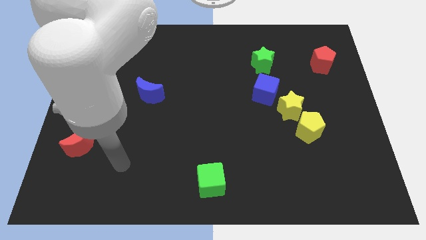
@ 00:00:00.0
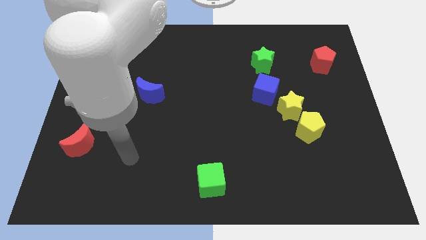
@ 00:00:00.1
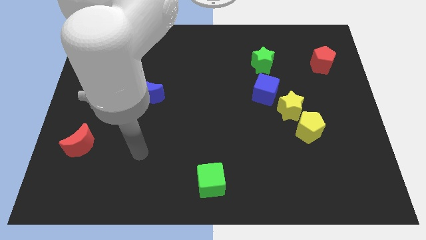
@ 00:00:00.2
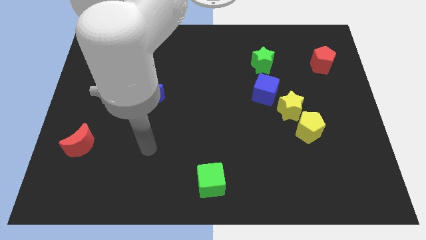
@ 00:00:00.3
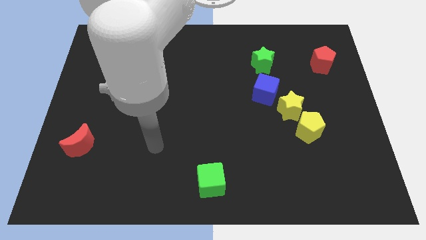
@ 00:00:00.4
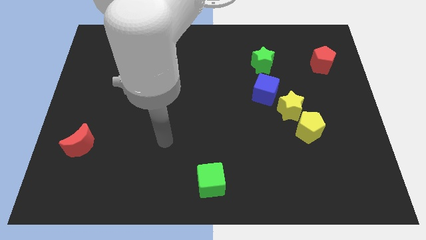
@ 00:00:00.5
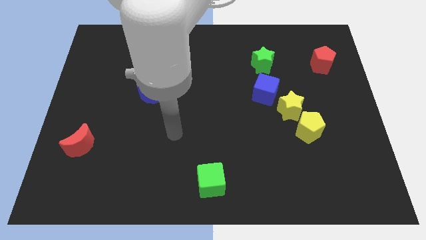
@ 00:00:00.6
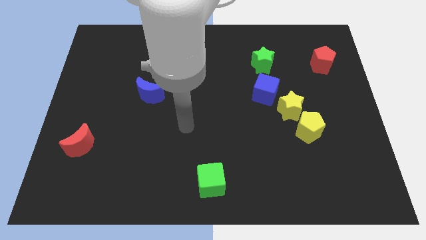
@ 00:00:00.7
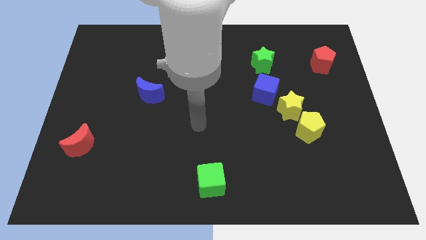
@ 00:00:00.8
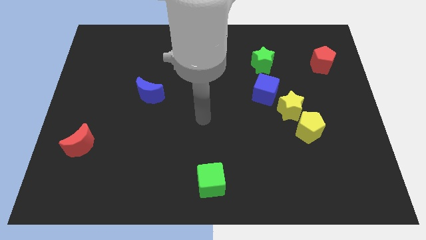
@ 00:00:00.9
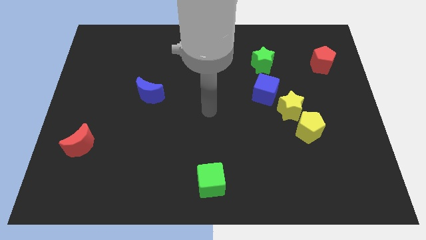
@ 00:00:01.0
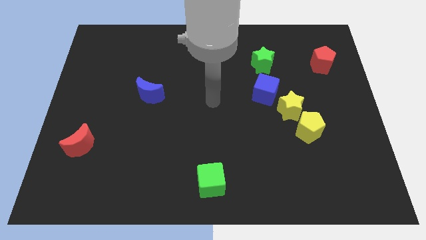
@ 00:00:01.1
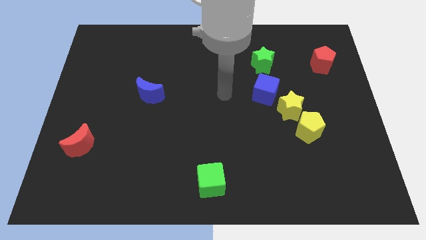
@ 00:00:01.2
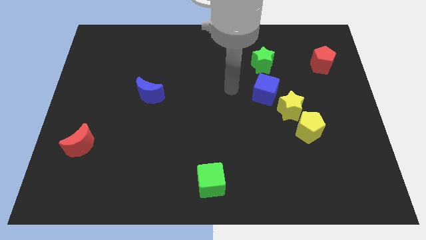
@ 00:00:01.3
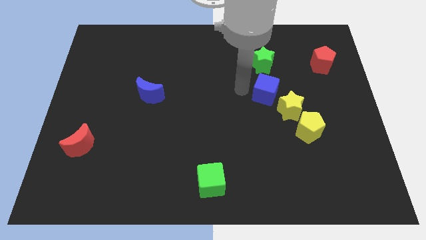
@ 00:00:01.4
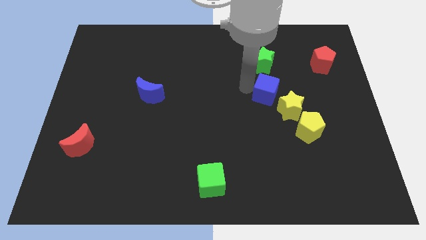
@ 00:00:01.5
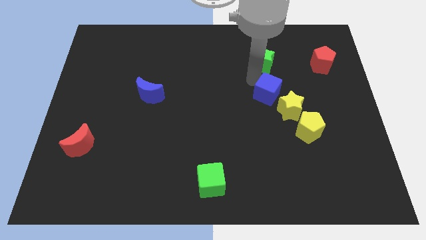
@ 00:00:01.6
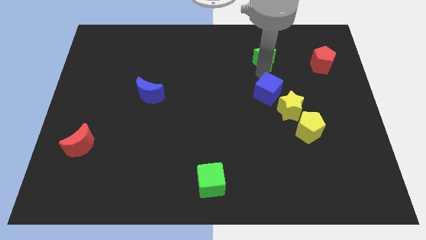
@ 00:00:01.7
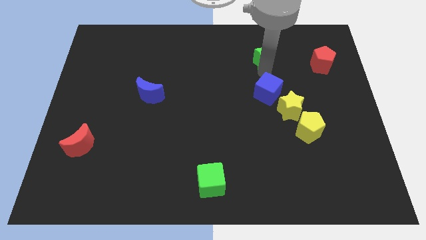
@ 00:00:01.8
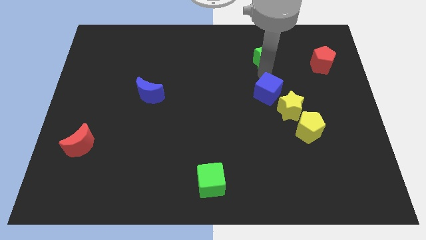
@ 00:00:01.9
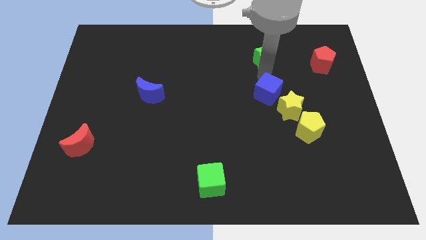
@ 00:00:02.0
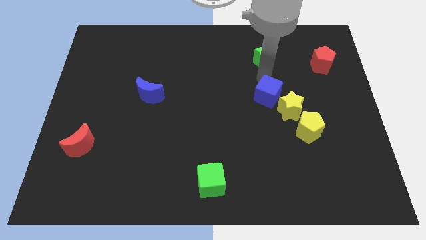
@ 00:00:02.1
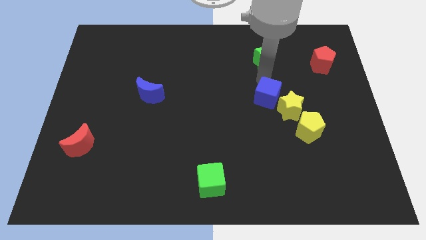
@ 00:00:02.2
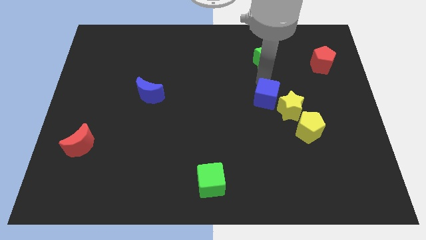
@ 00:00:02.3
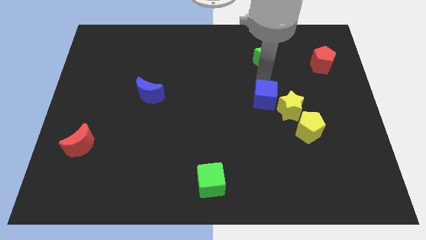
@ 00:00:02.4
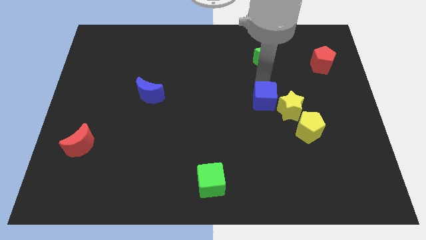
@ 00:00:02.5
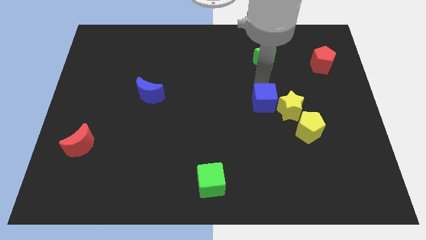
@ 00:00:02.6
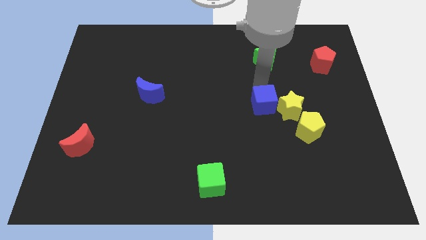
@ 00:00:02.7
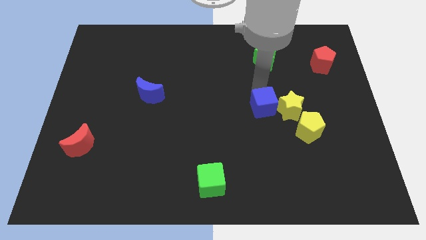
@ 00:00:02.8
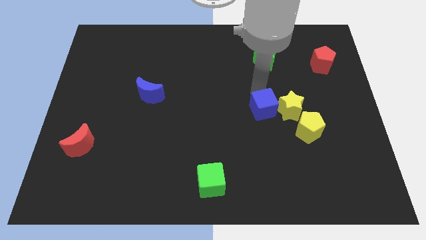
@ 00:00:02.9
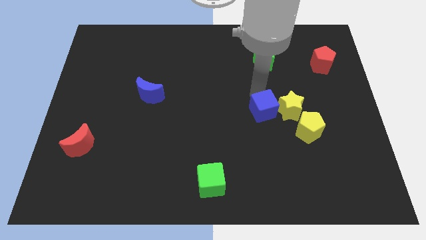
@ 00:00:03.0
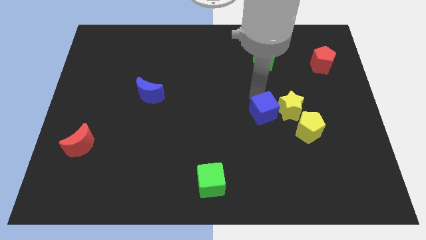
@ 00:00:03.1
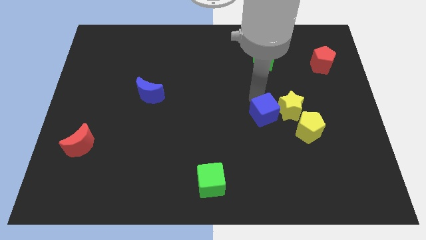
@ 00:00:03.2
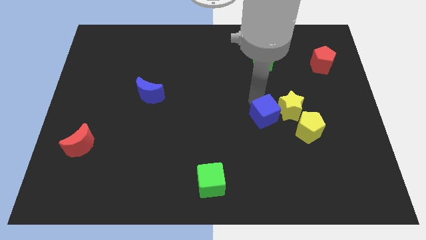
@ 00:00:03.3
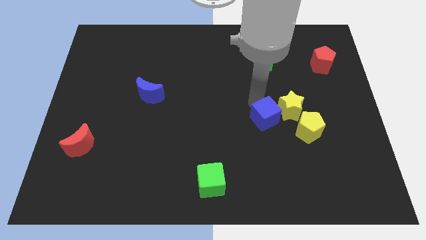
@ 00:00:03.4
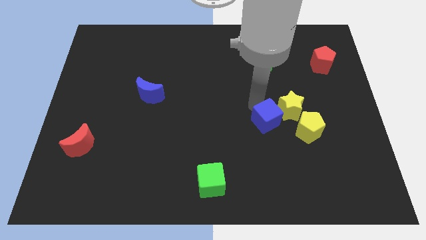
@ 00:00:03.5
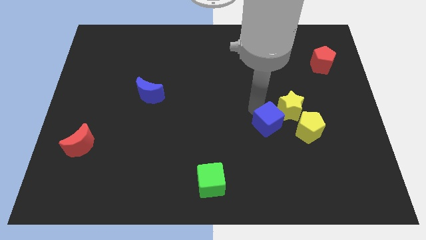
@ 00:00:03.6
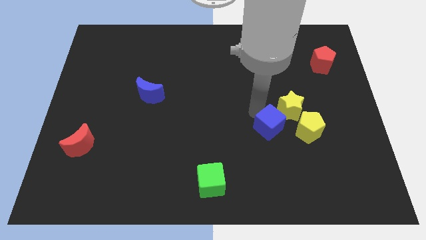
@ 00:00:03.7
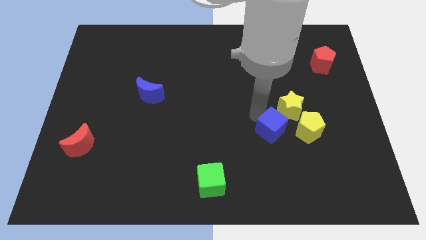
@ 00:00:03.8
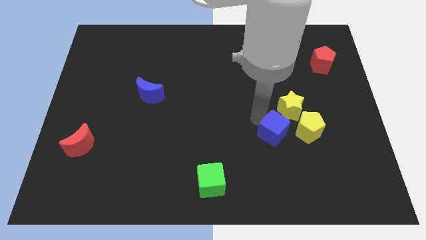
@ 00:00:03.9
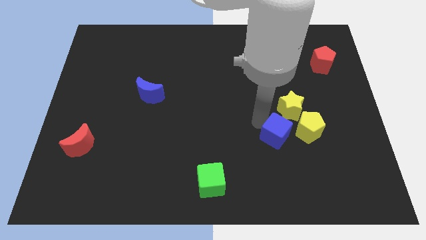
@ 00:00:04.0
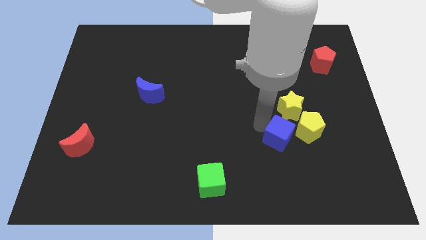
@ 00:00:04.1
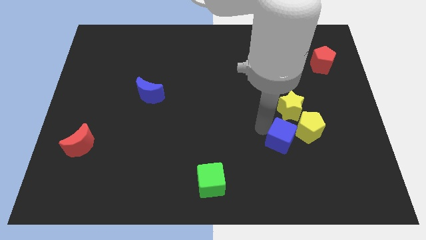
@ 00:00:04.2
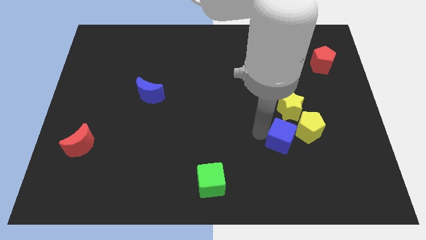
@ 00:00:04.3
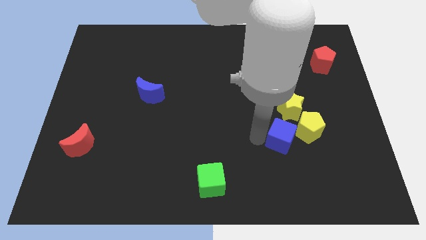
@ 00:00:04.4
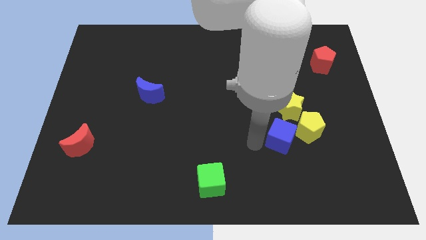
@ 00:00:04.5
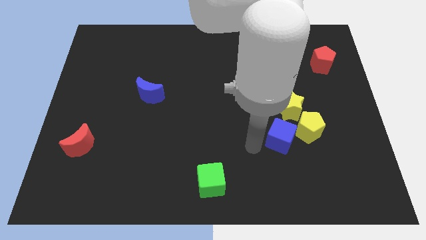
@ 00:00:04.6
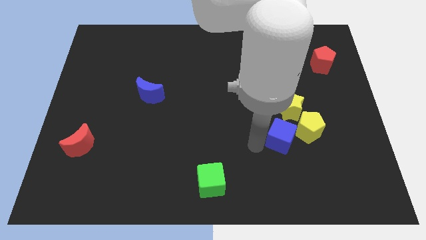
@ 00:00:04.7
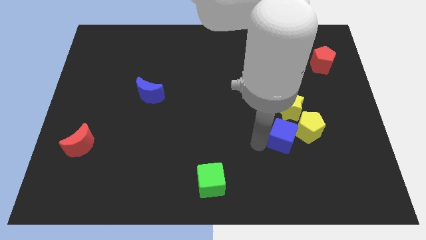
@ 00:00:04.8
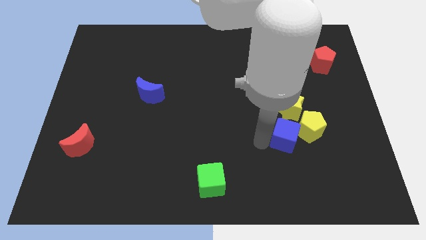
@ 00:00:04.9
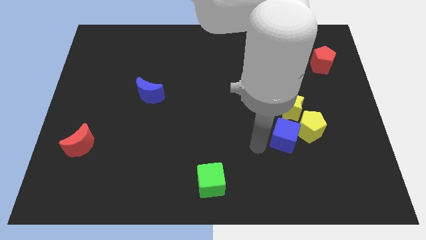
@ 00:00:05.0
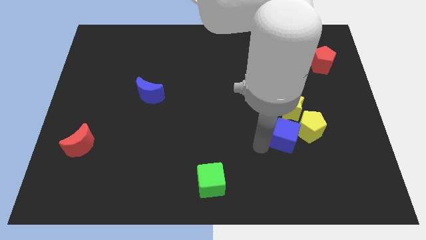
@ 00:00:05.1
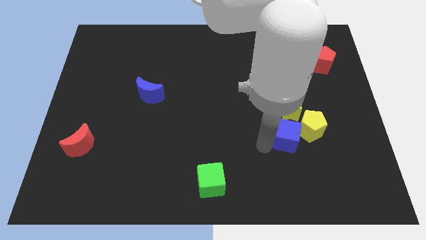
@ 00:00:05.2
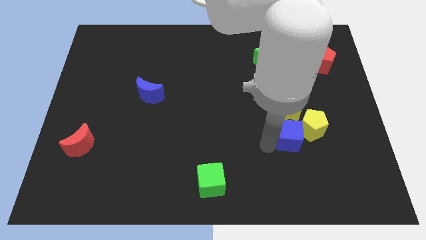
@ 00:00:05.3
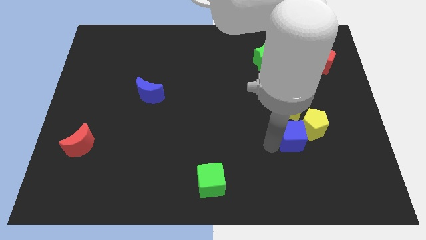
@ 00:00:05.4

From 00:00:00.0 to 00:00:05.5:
slide the blue cube next to the yellow pentagon

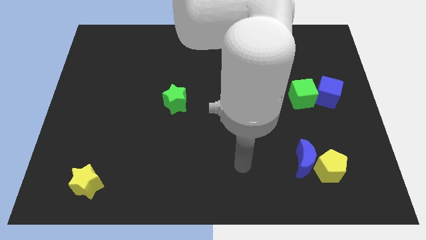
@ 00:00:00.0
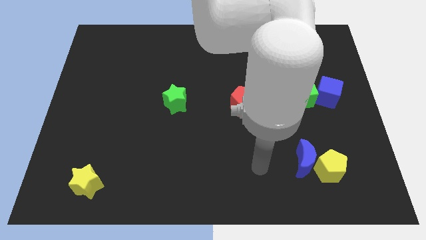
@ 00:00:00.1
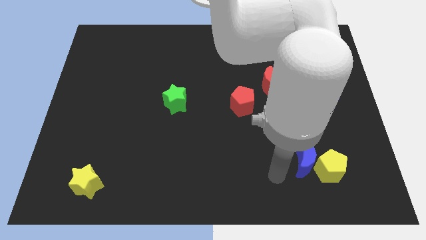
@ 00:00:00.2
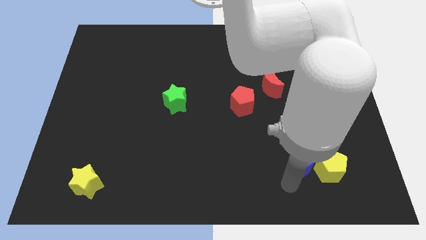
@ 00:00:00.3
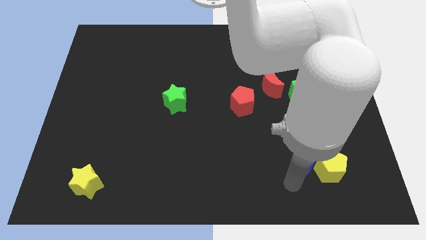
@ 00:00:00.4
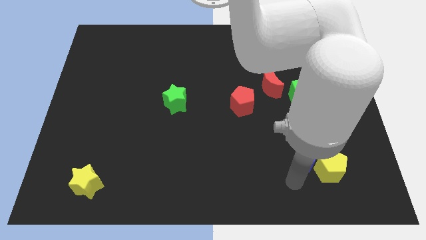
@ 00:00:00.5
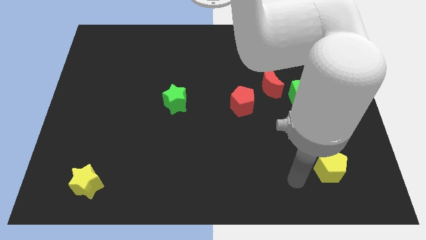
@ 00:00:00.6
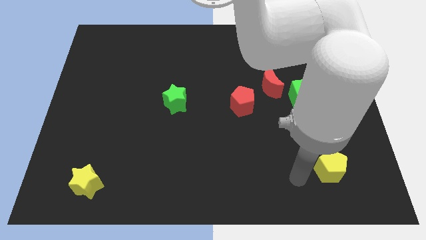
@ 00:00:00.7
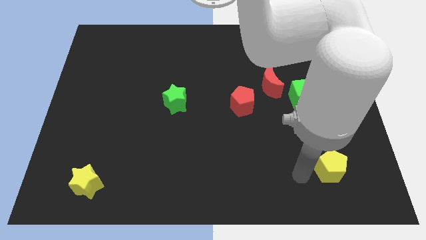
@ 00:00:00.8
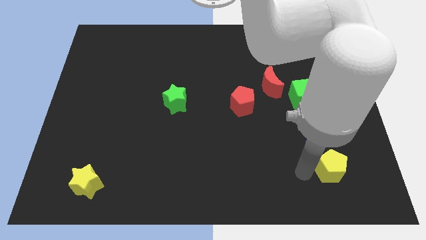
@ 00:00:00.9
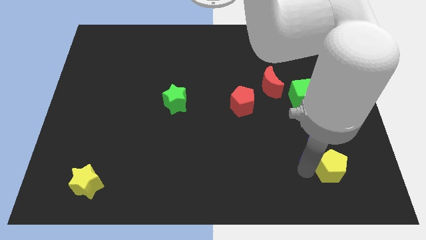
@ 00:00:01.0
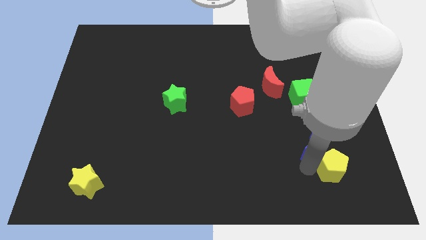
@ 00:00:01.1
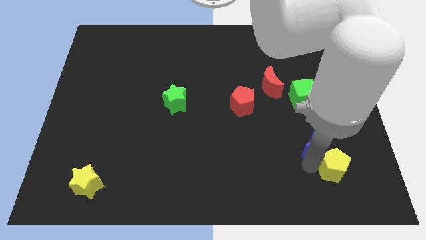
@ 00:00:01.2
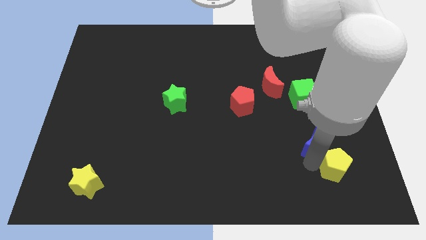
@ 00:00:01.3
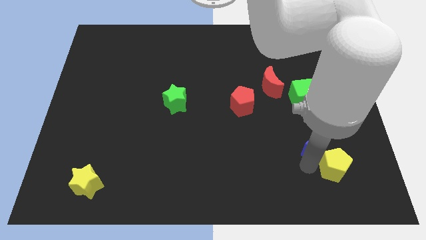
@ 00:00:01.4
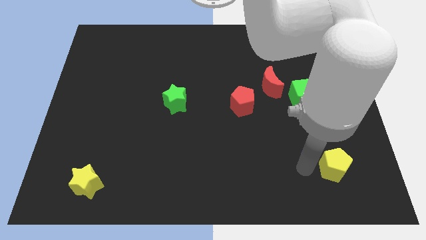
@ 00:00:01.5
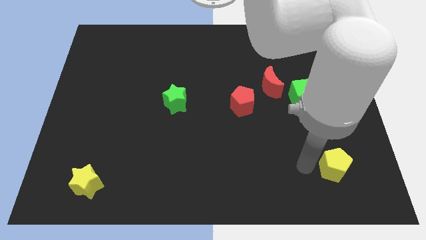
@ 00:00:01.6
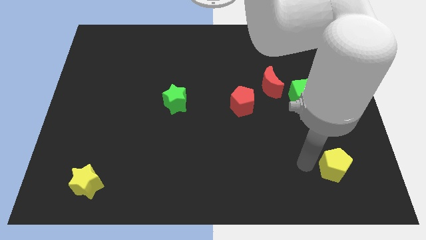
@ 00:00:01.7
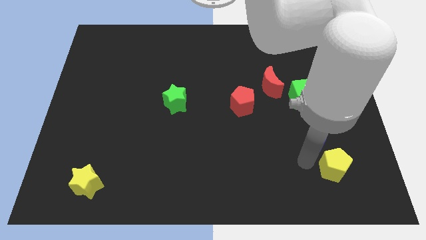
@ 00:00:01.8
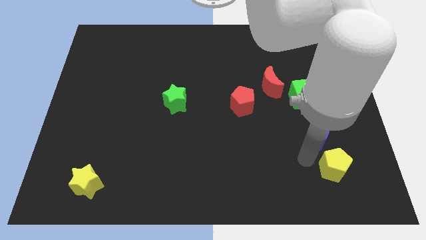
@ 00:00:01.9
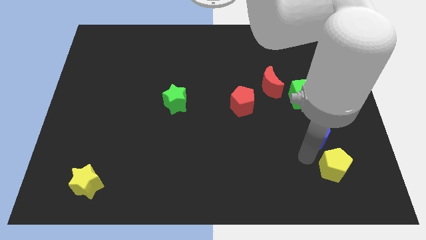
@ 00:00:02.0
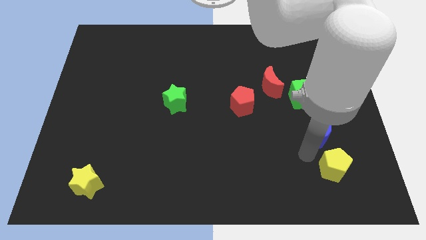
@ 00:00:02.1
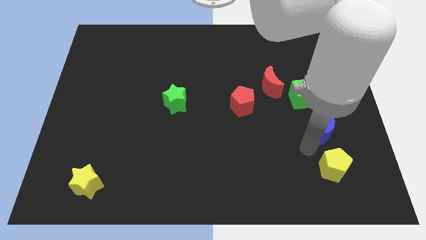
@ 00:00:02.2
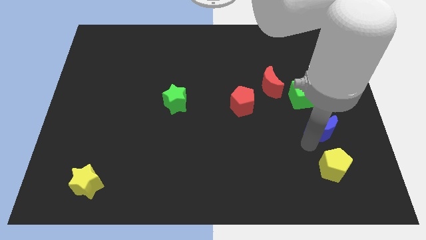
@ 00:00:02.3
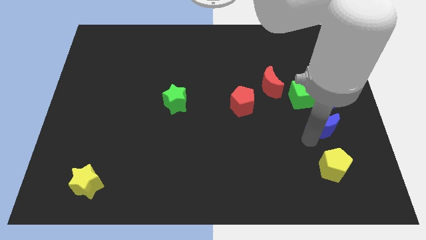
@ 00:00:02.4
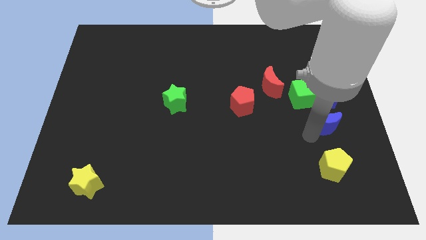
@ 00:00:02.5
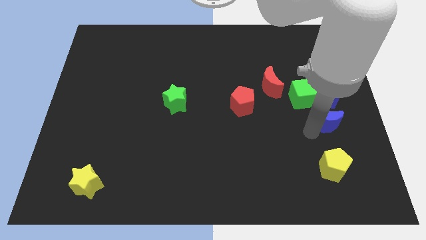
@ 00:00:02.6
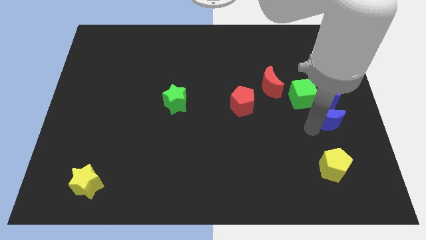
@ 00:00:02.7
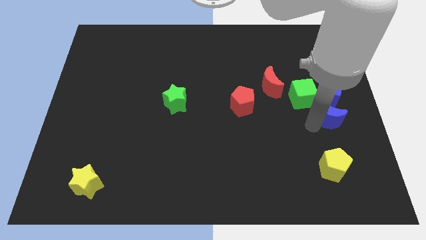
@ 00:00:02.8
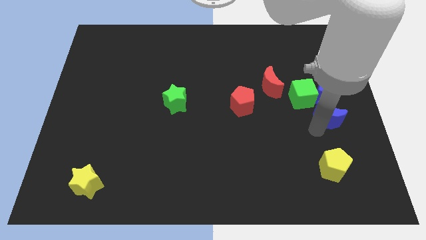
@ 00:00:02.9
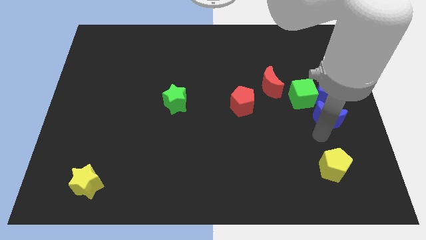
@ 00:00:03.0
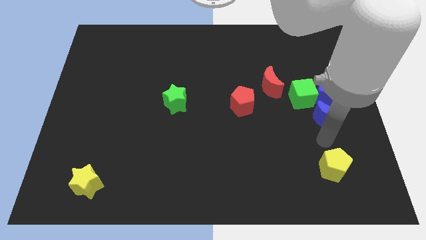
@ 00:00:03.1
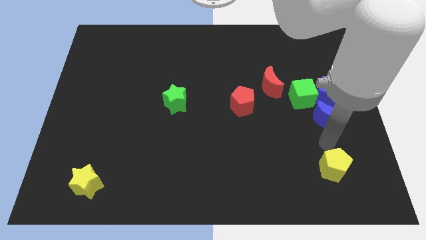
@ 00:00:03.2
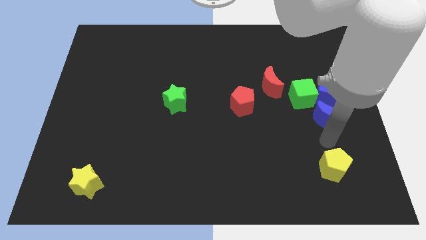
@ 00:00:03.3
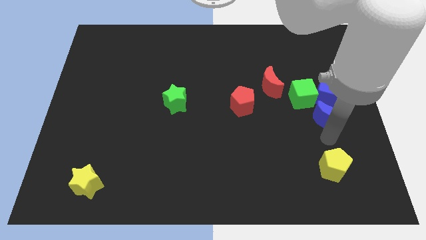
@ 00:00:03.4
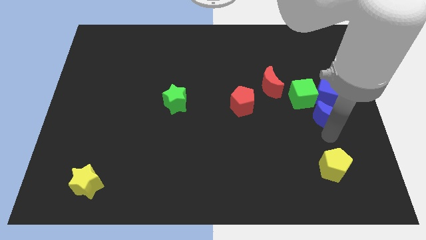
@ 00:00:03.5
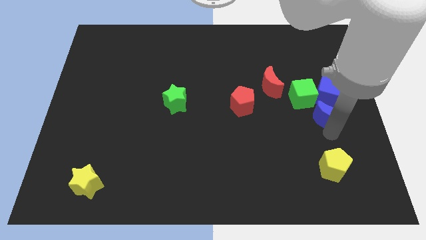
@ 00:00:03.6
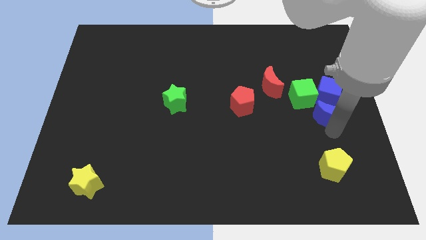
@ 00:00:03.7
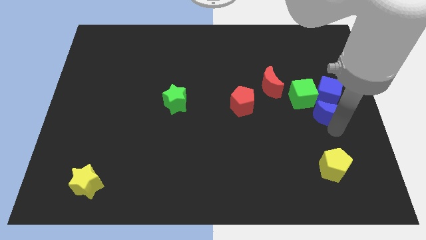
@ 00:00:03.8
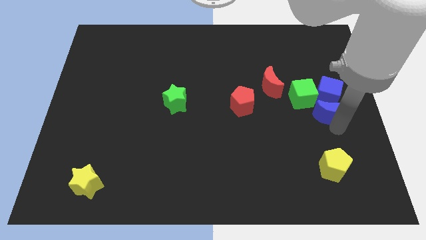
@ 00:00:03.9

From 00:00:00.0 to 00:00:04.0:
push the blue moon towards the blue cube
